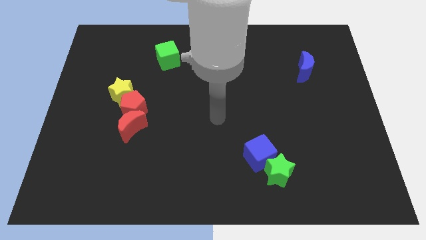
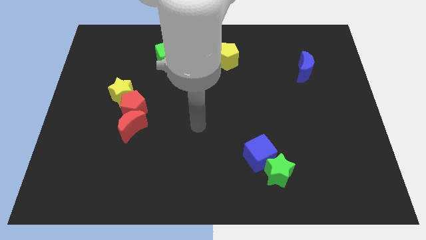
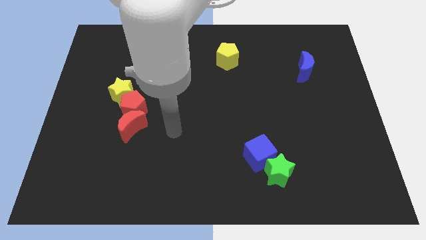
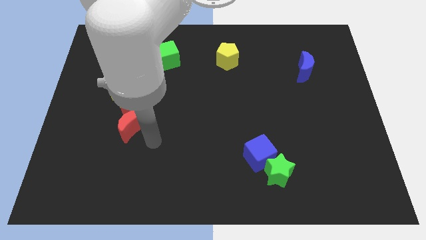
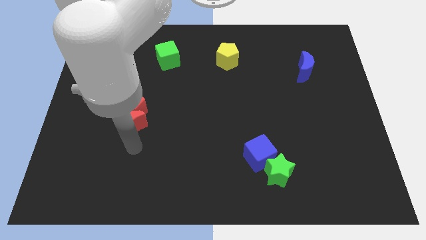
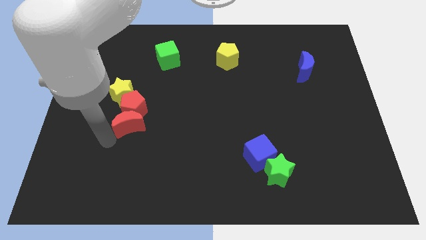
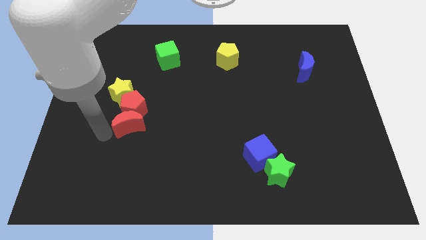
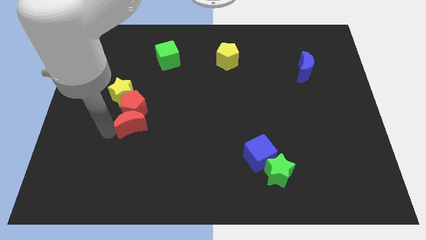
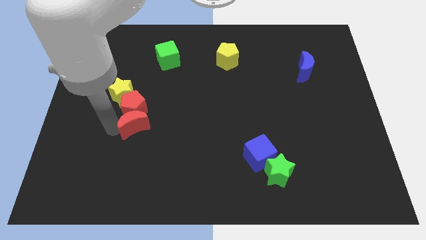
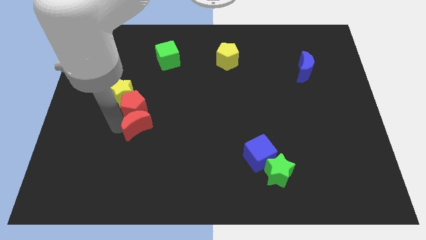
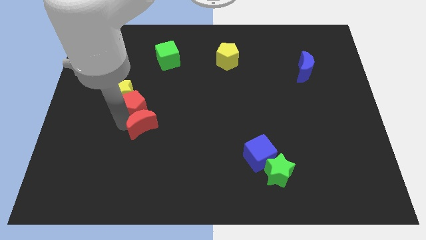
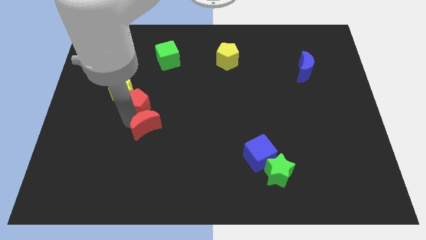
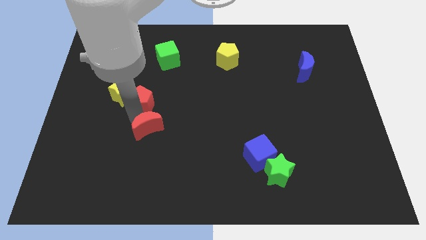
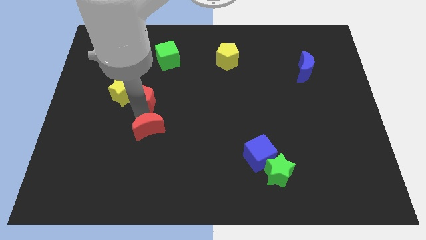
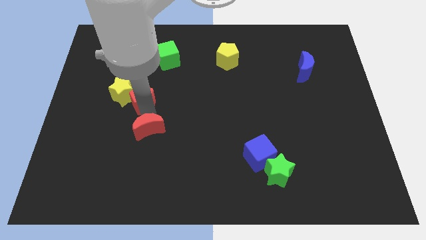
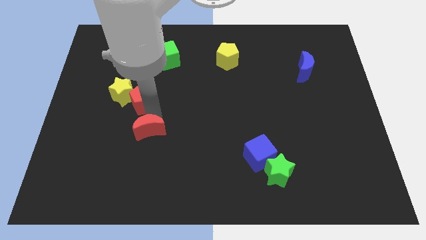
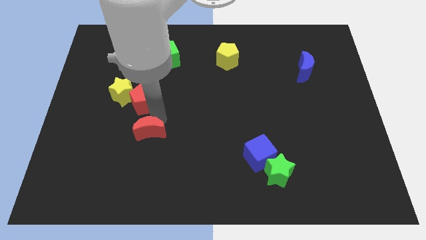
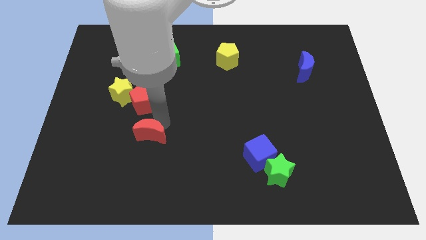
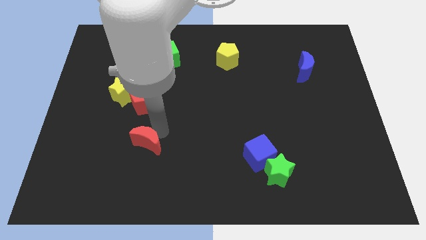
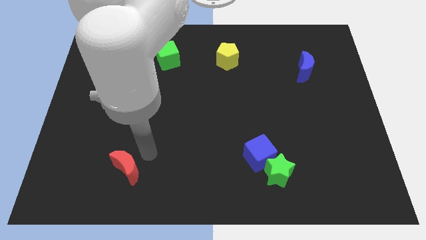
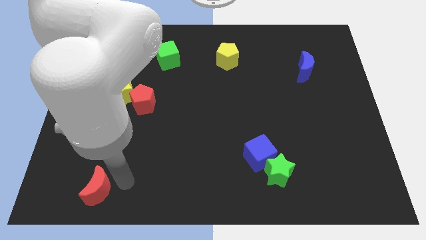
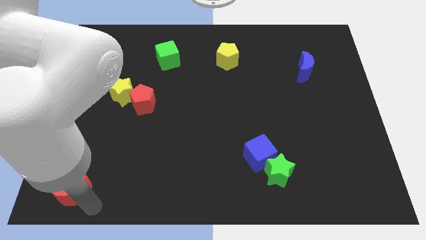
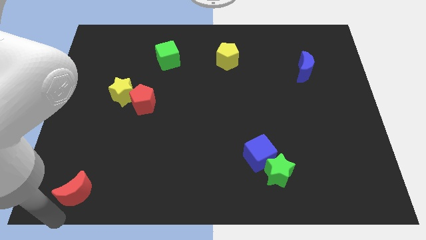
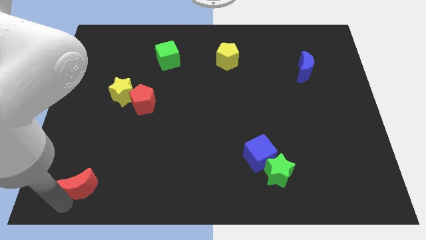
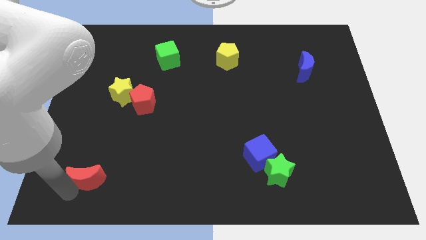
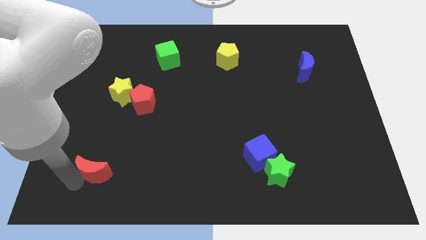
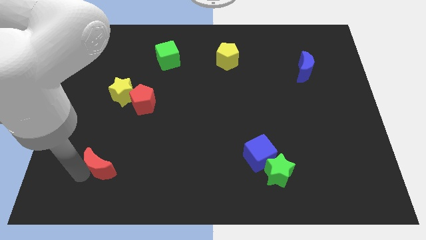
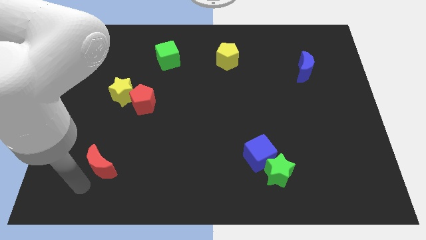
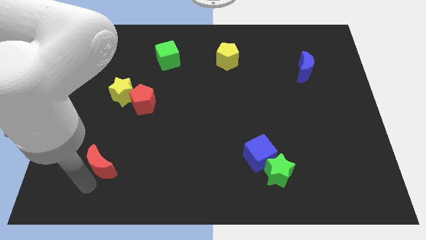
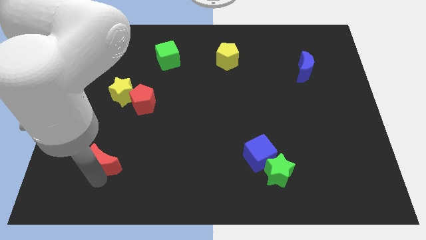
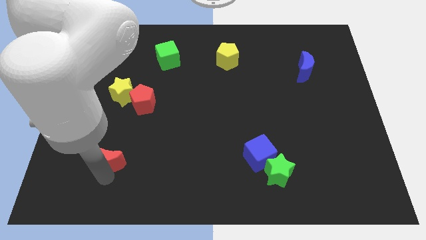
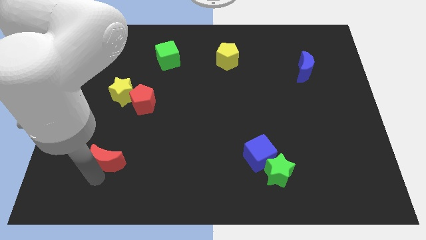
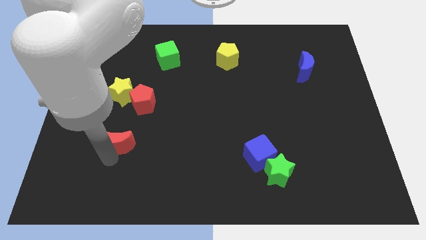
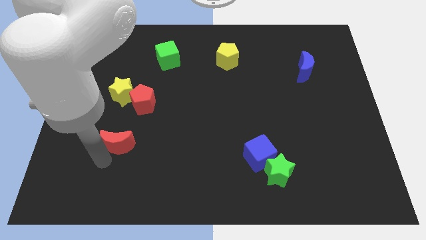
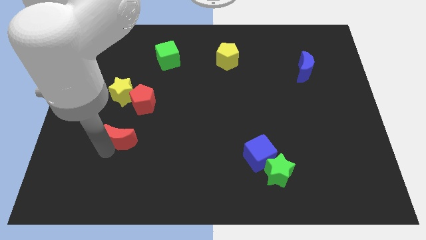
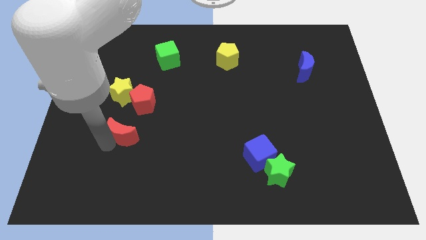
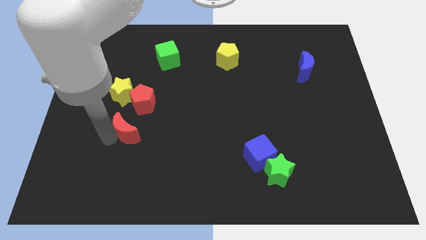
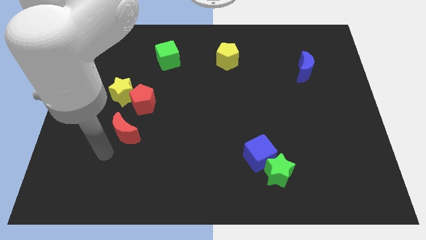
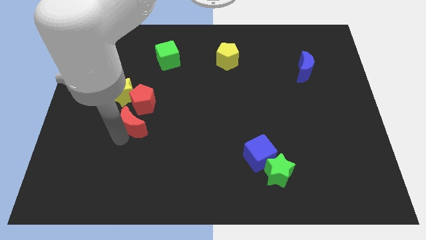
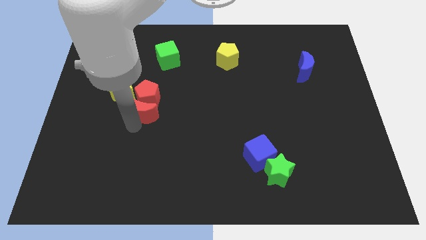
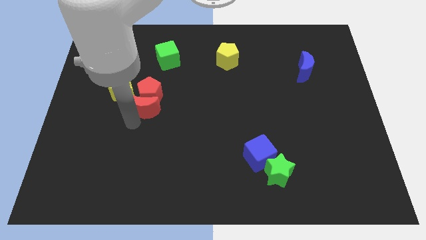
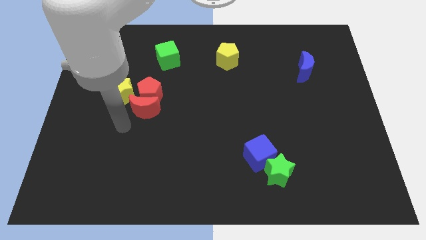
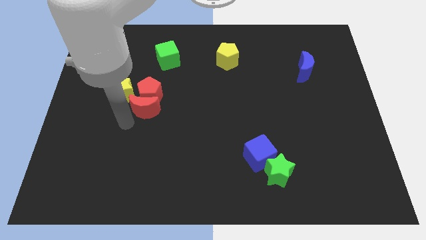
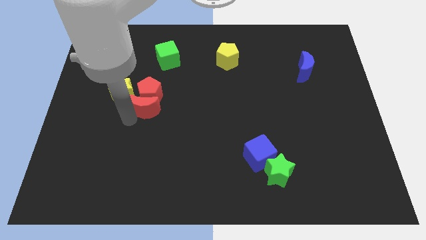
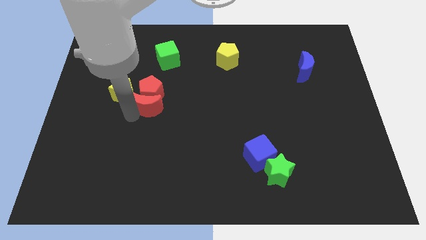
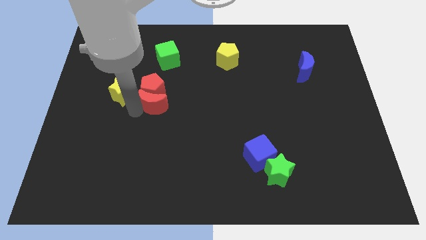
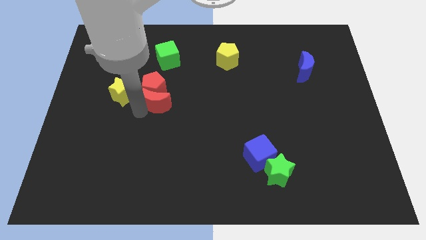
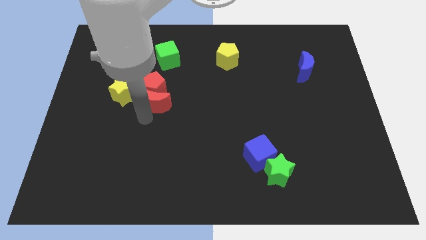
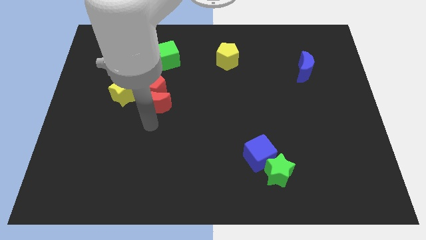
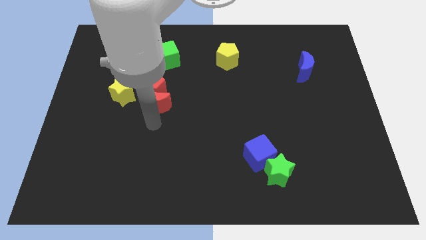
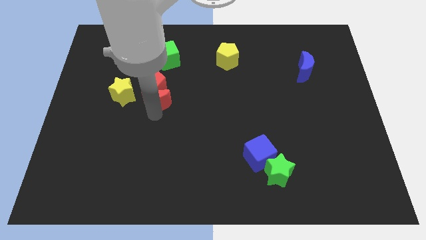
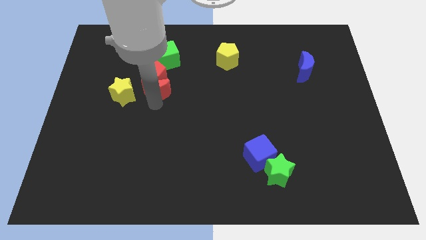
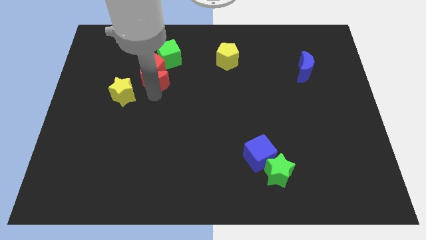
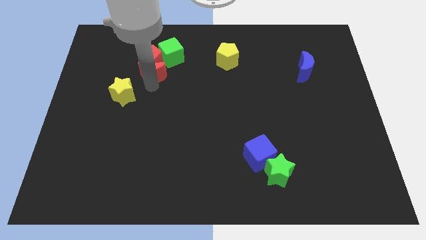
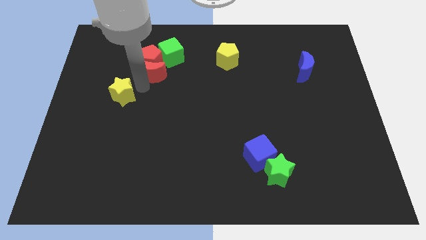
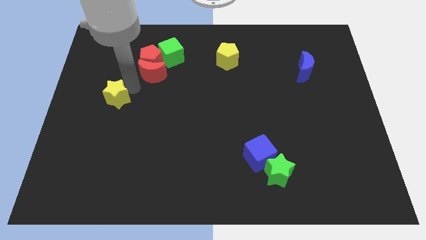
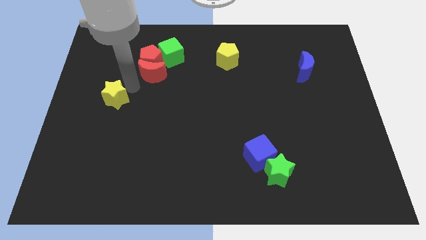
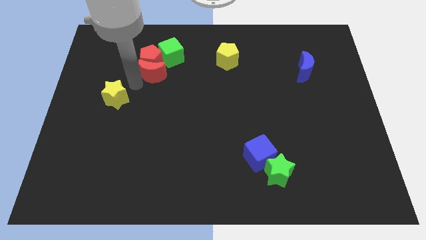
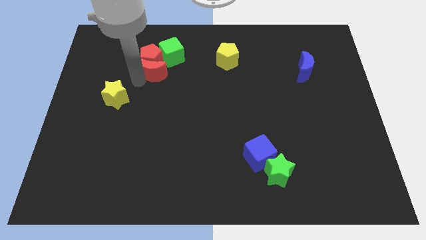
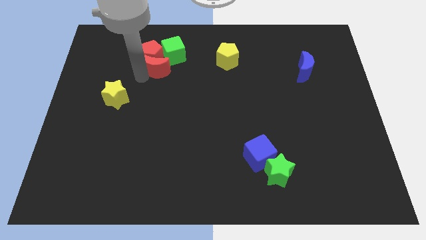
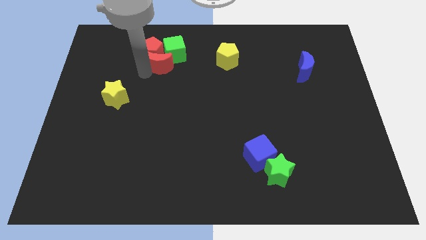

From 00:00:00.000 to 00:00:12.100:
put the red moon towards the green cube

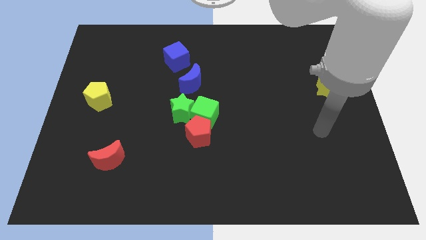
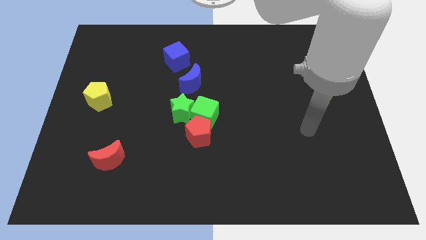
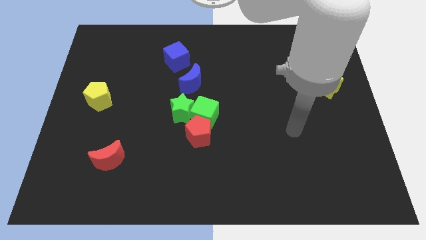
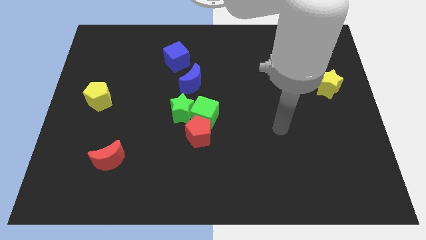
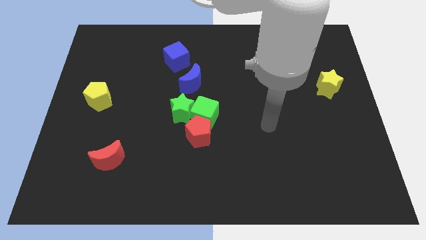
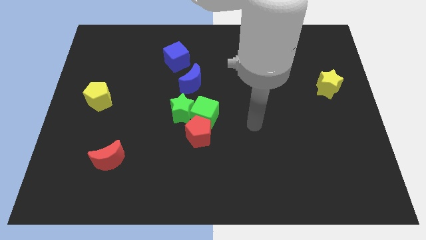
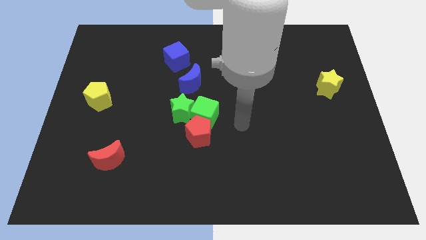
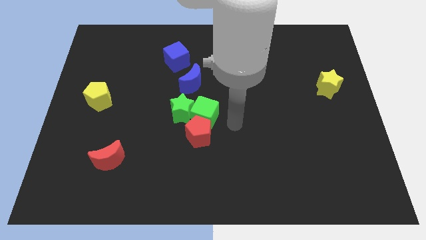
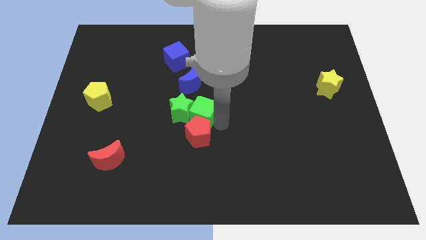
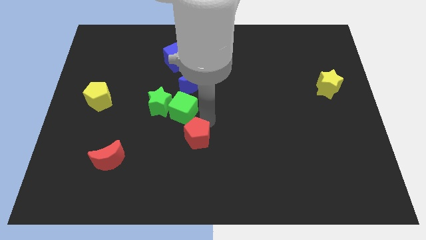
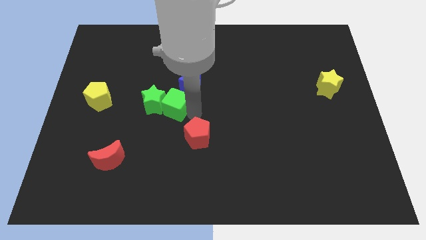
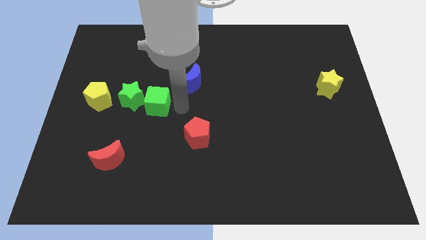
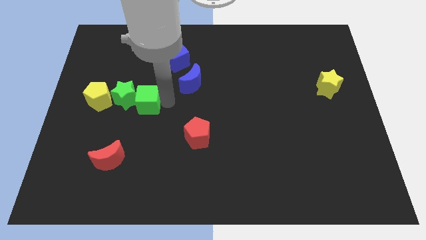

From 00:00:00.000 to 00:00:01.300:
move the green star towards the yellow pentagon
